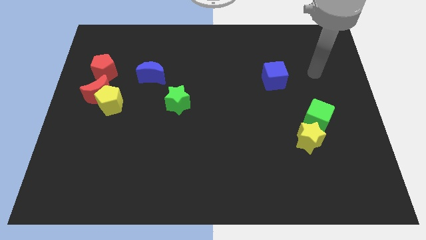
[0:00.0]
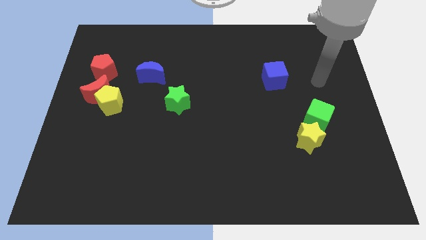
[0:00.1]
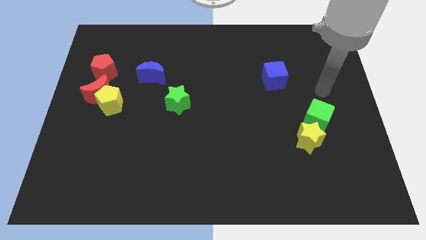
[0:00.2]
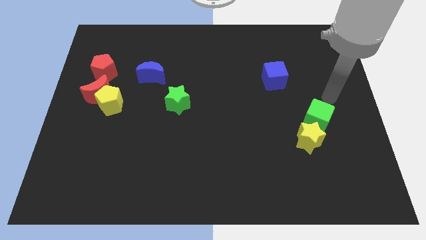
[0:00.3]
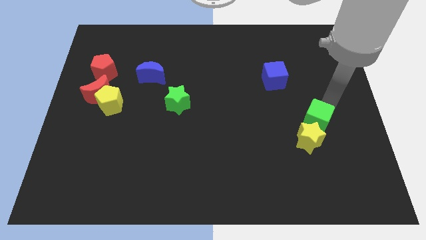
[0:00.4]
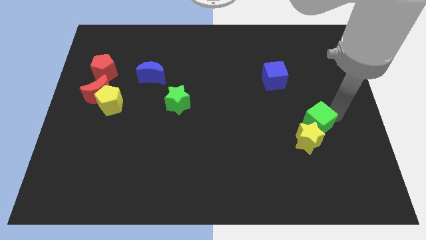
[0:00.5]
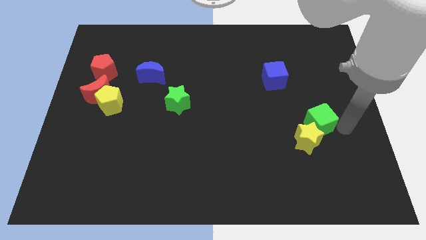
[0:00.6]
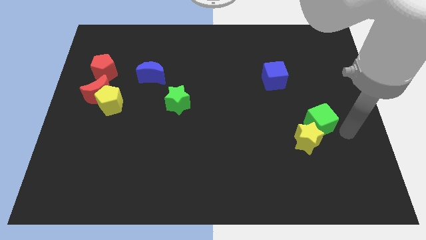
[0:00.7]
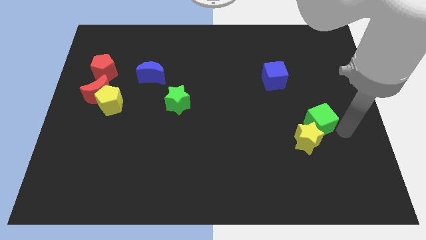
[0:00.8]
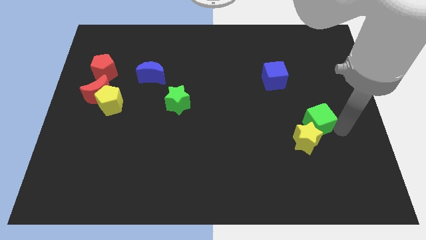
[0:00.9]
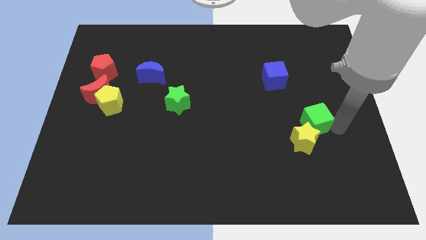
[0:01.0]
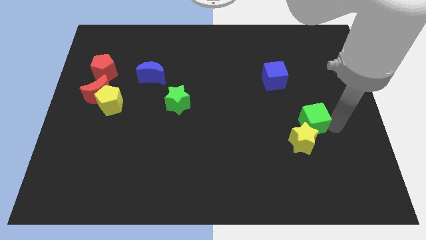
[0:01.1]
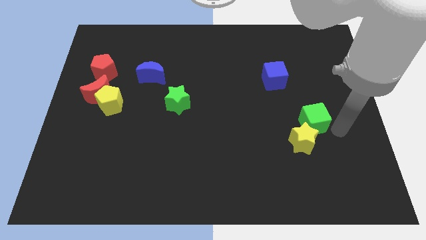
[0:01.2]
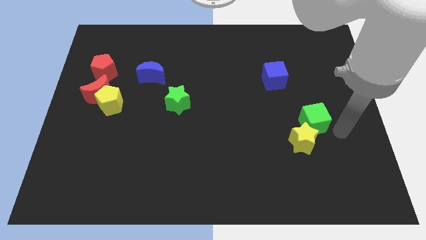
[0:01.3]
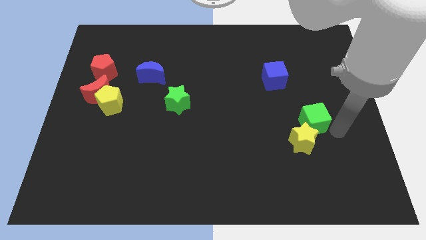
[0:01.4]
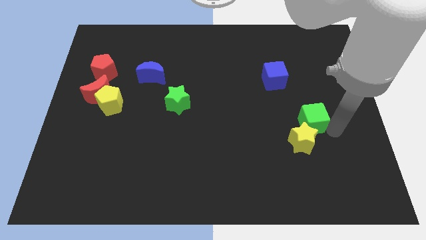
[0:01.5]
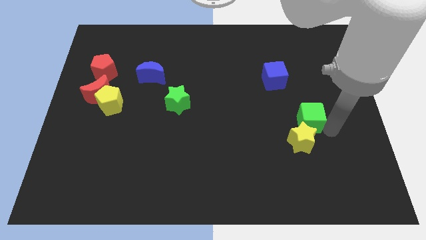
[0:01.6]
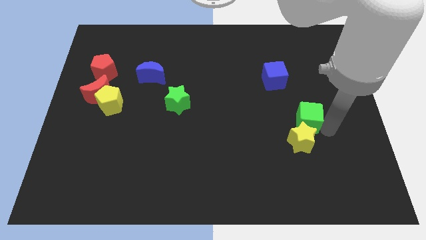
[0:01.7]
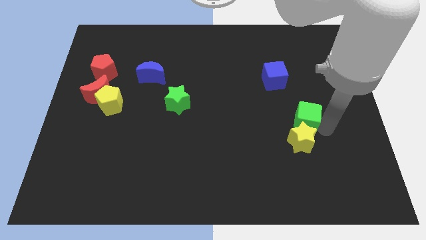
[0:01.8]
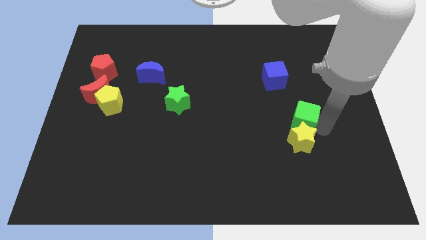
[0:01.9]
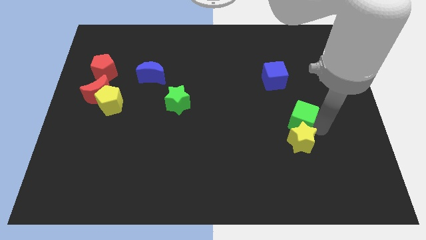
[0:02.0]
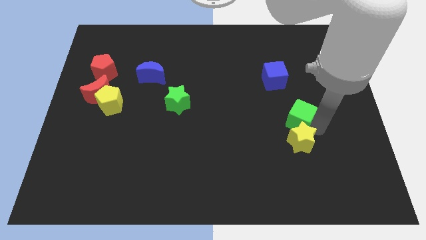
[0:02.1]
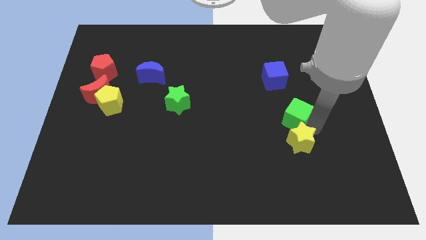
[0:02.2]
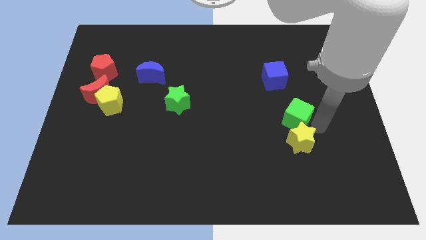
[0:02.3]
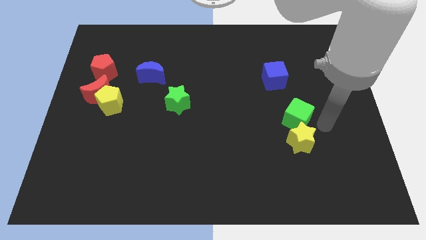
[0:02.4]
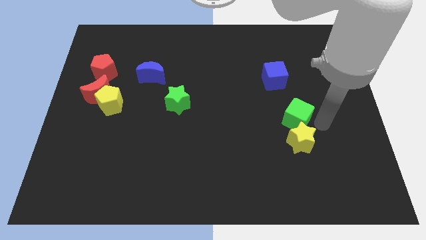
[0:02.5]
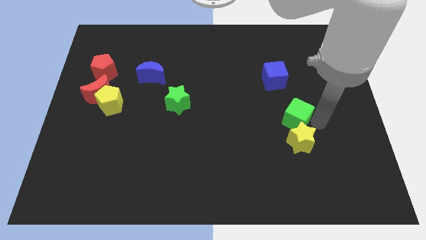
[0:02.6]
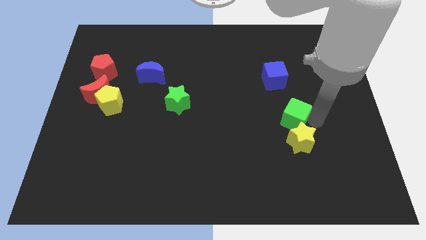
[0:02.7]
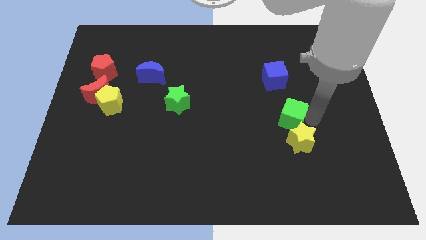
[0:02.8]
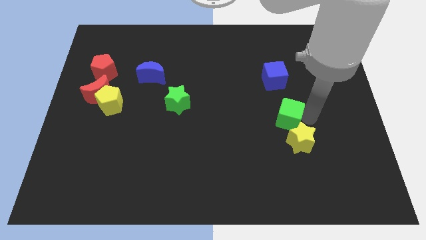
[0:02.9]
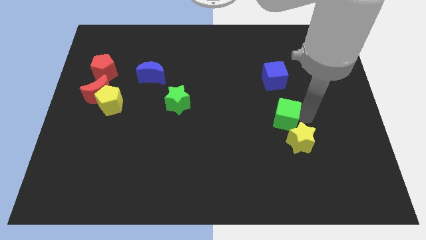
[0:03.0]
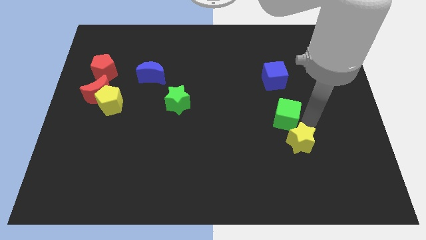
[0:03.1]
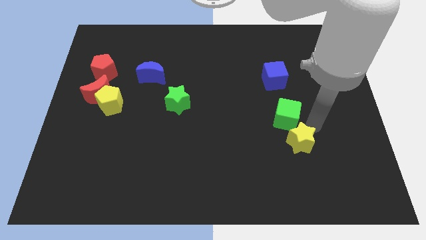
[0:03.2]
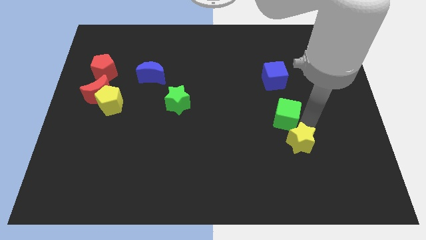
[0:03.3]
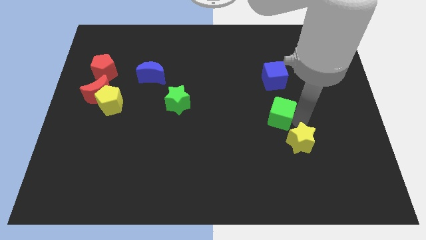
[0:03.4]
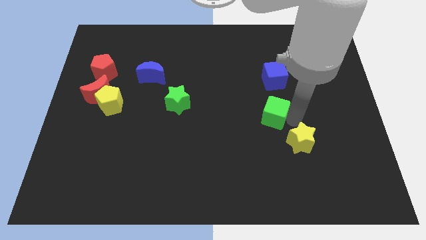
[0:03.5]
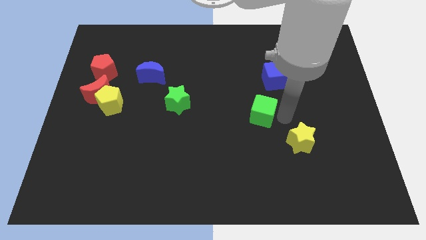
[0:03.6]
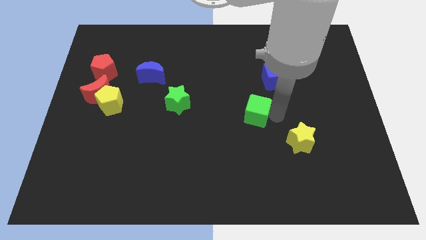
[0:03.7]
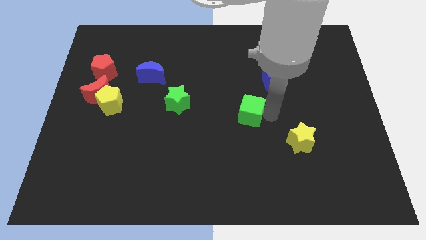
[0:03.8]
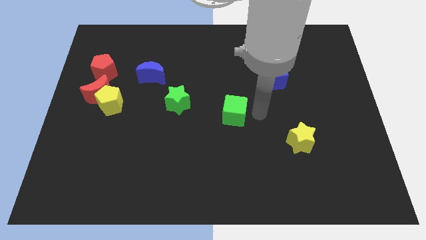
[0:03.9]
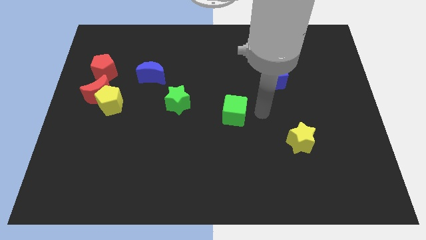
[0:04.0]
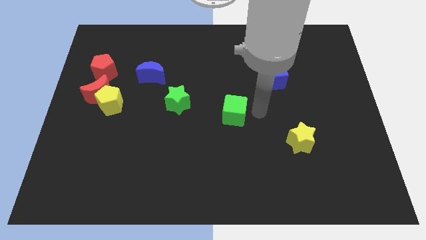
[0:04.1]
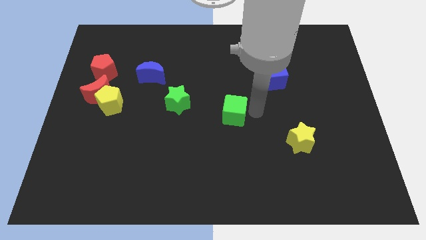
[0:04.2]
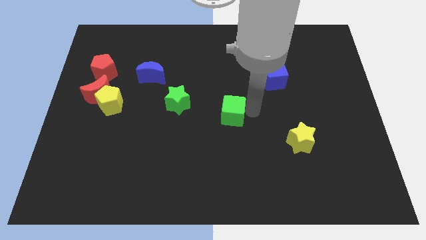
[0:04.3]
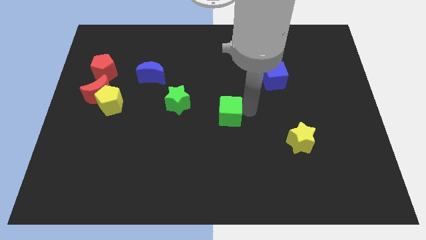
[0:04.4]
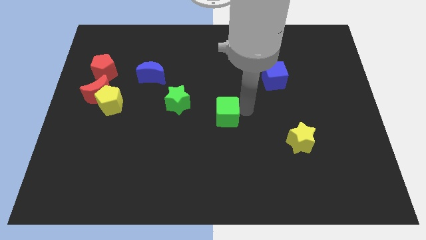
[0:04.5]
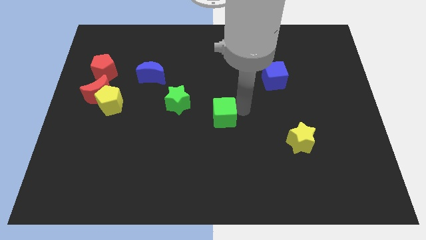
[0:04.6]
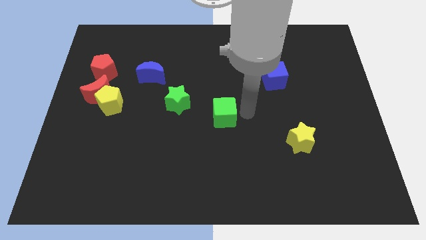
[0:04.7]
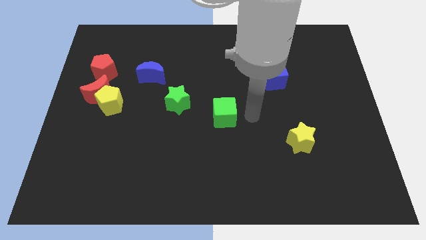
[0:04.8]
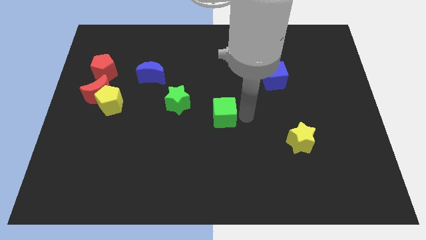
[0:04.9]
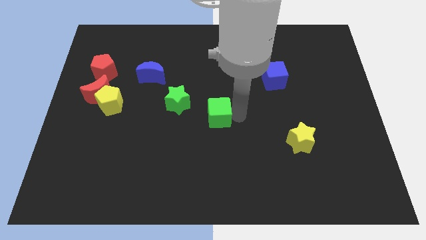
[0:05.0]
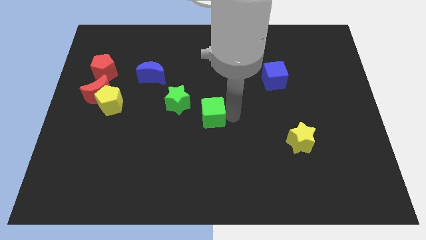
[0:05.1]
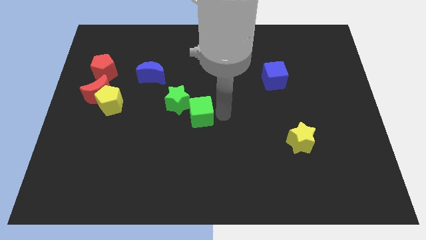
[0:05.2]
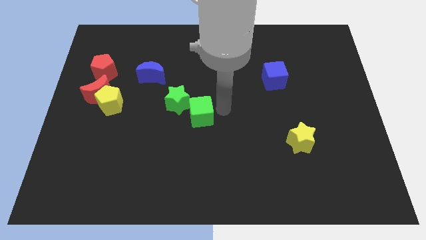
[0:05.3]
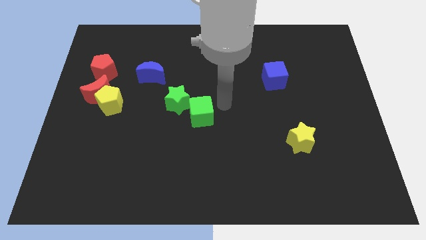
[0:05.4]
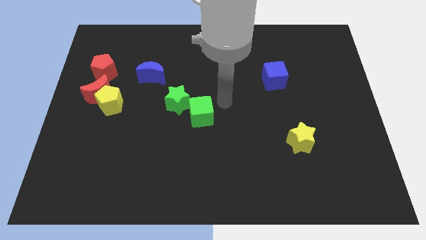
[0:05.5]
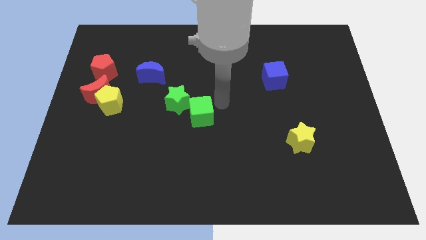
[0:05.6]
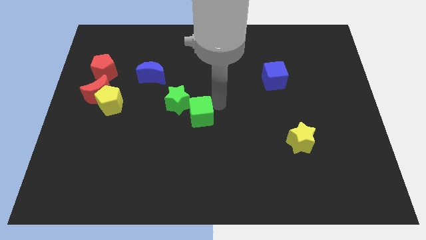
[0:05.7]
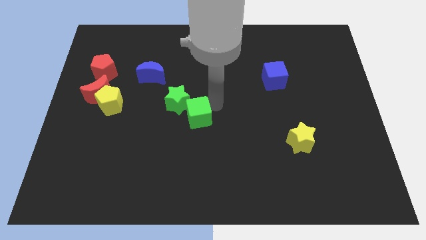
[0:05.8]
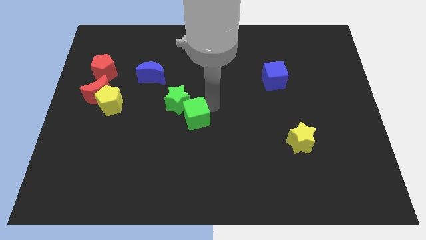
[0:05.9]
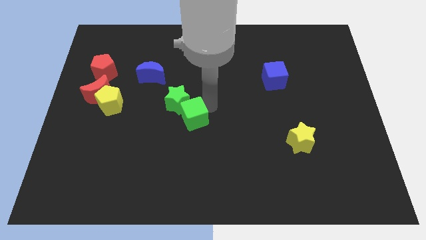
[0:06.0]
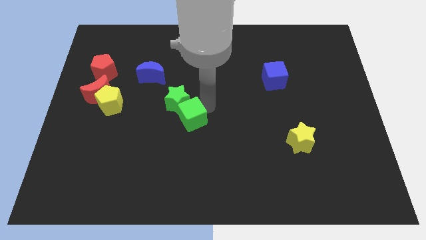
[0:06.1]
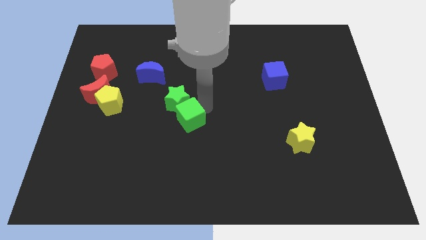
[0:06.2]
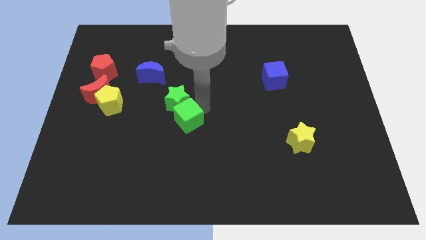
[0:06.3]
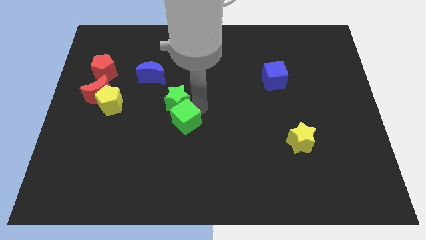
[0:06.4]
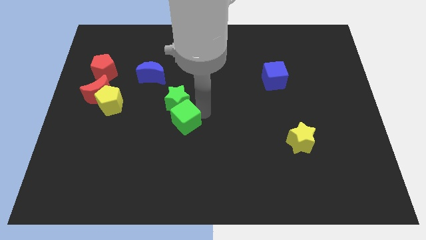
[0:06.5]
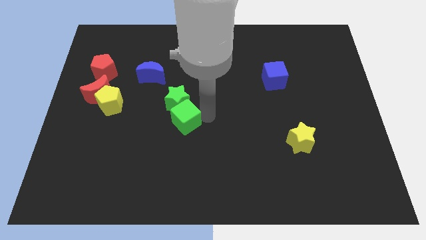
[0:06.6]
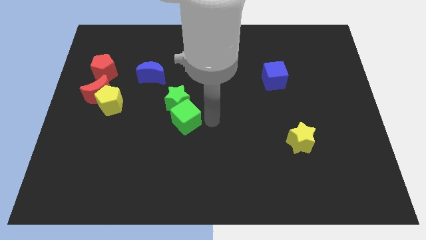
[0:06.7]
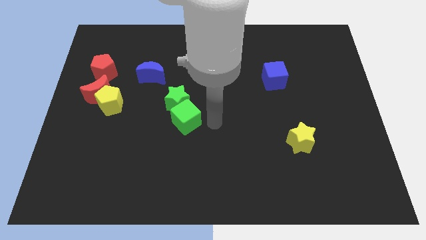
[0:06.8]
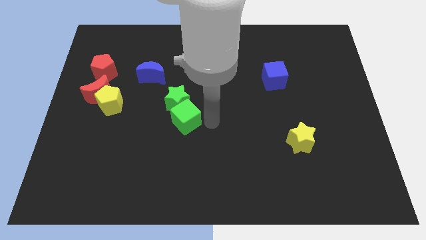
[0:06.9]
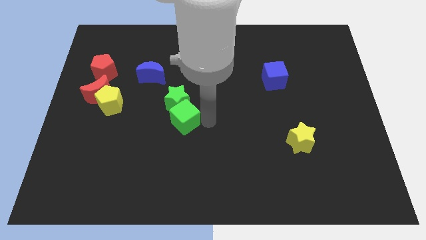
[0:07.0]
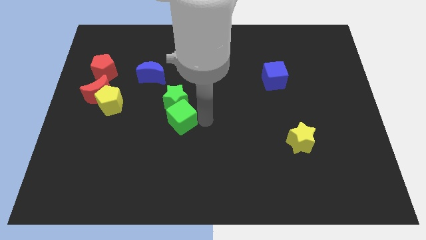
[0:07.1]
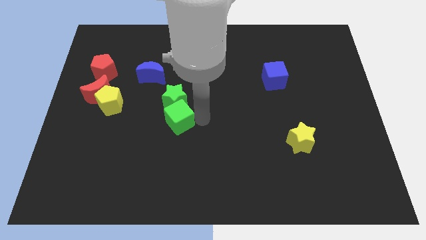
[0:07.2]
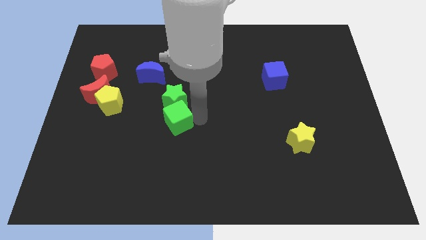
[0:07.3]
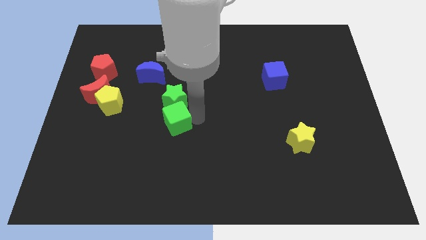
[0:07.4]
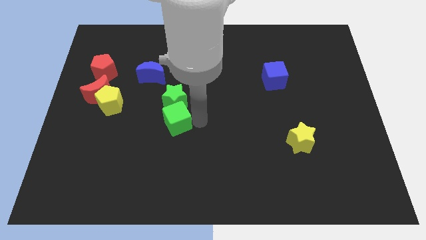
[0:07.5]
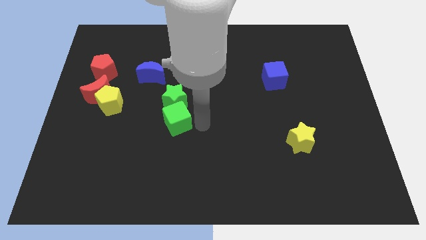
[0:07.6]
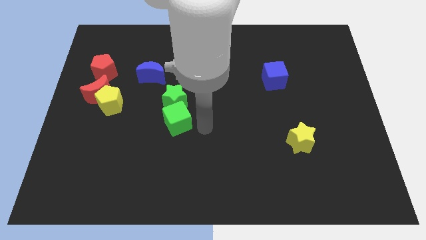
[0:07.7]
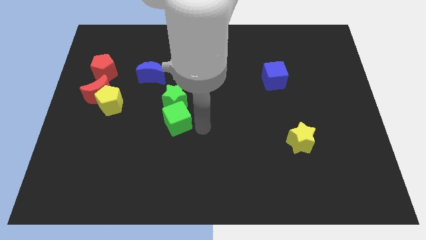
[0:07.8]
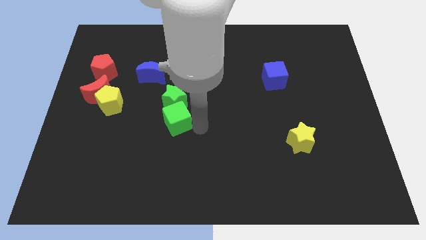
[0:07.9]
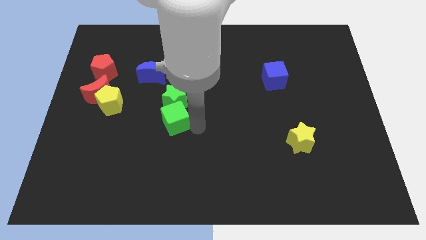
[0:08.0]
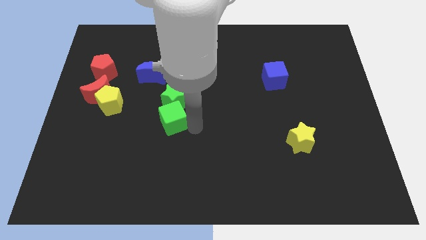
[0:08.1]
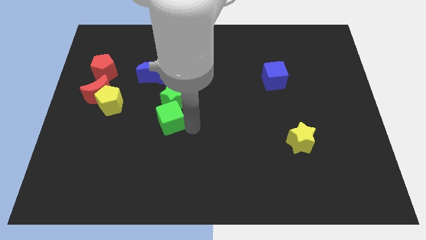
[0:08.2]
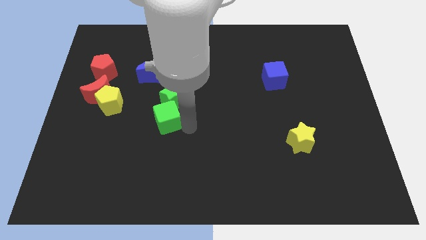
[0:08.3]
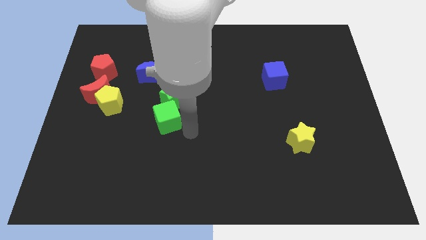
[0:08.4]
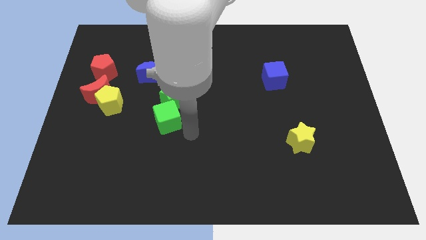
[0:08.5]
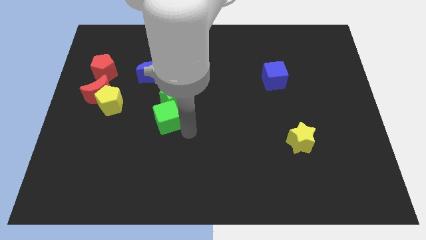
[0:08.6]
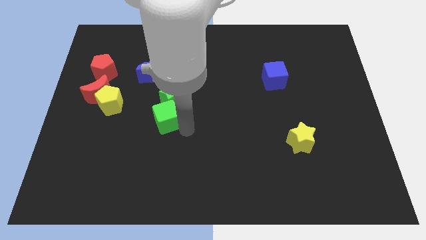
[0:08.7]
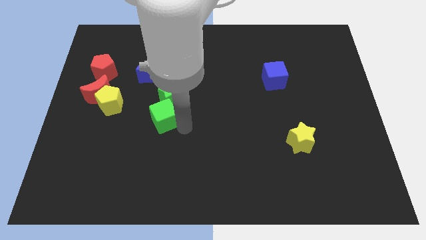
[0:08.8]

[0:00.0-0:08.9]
put the green cube to the bottom side of the blue moon

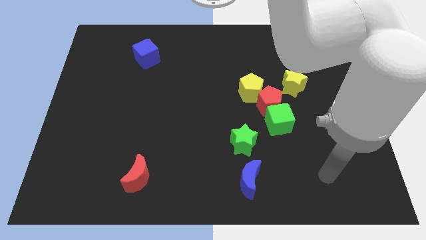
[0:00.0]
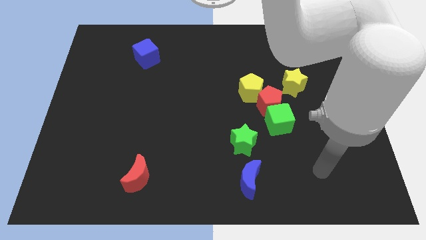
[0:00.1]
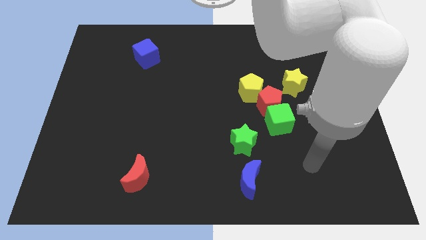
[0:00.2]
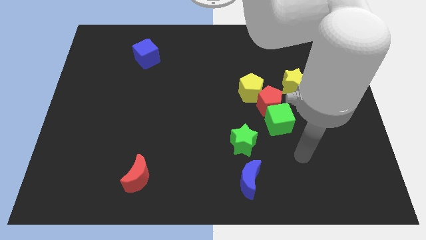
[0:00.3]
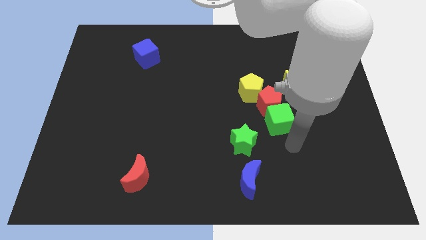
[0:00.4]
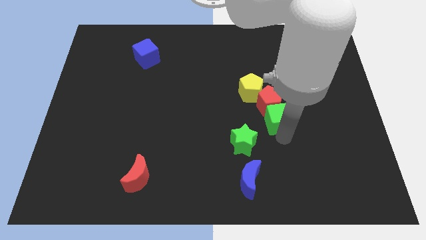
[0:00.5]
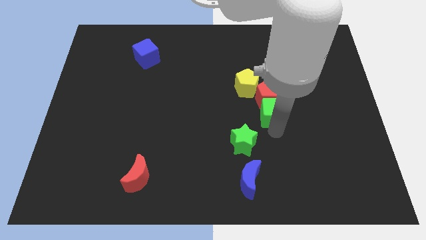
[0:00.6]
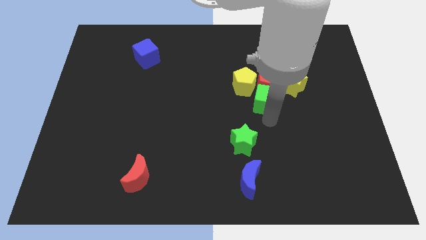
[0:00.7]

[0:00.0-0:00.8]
push the red pentagon to the top right of the yellow pentagon
